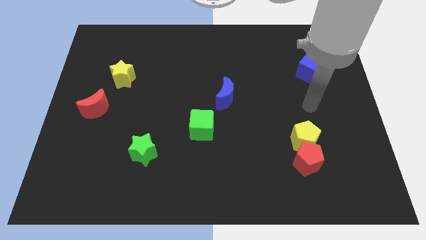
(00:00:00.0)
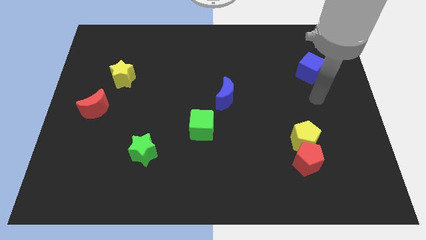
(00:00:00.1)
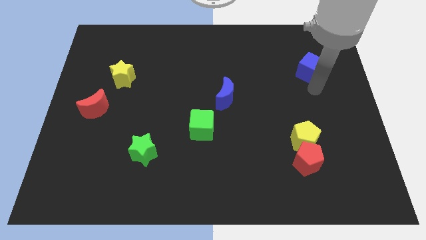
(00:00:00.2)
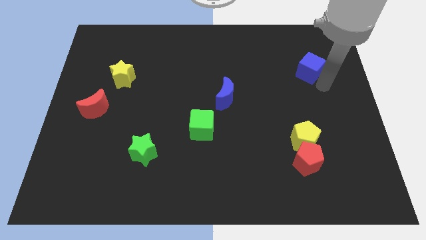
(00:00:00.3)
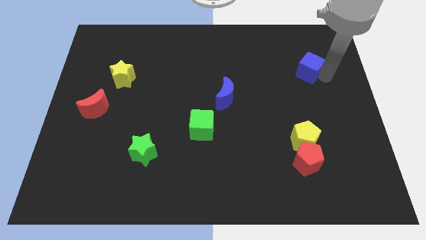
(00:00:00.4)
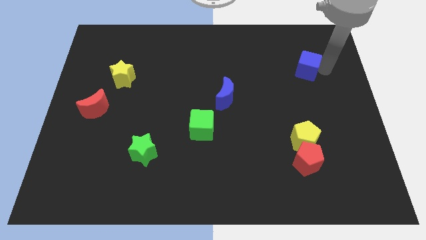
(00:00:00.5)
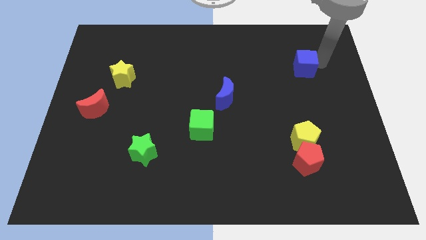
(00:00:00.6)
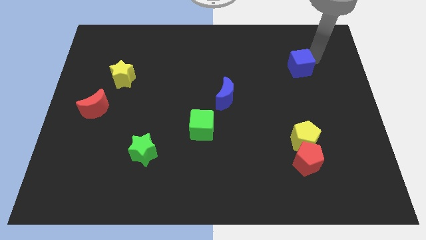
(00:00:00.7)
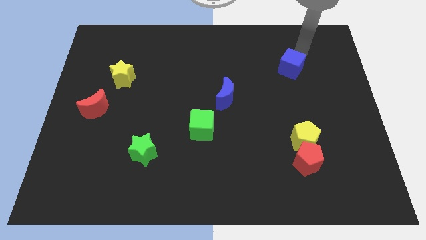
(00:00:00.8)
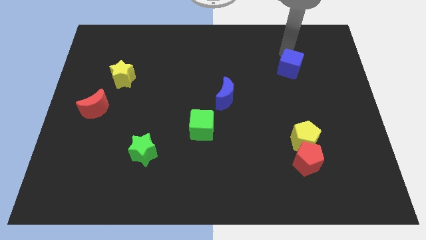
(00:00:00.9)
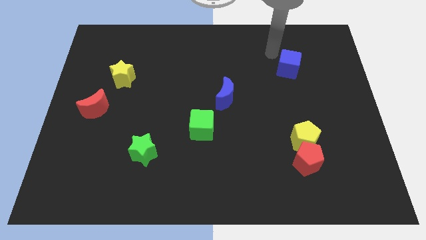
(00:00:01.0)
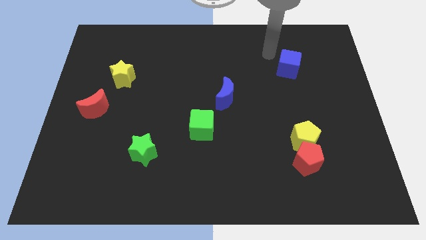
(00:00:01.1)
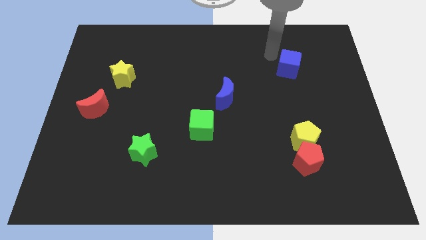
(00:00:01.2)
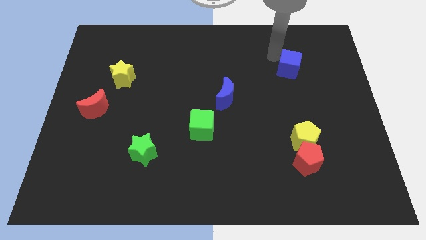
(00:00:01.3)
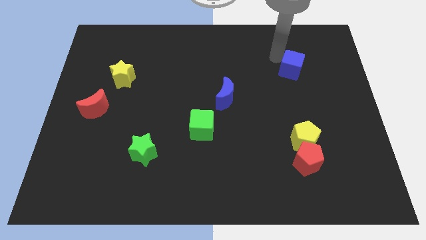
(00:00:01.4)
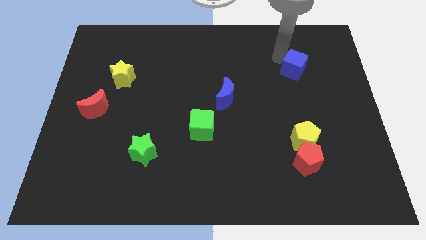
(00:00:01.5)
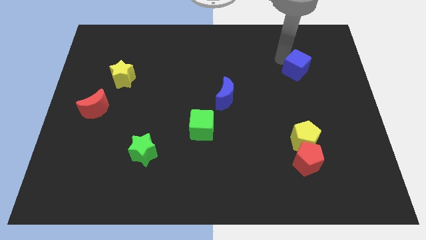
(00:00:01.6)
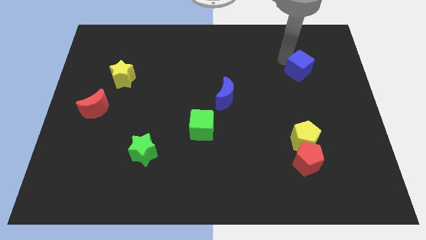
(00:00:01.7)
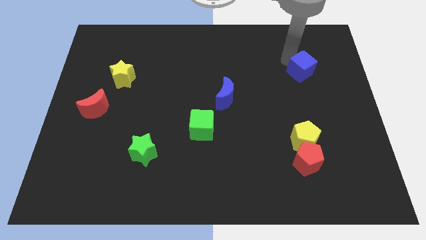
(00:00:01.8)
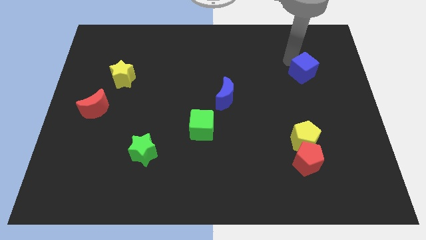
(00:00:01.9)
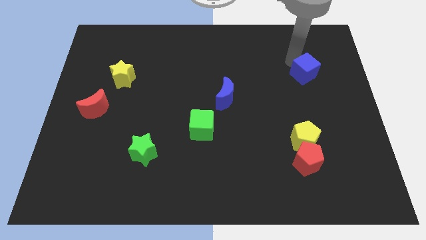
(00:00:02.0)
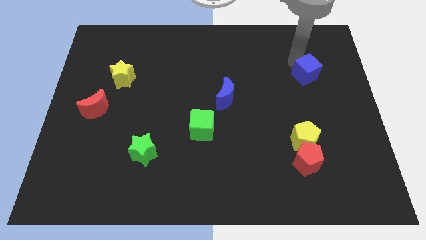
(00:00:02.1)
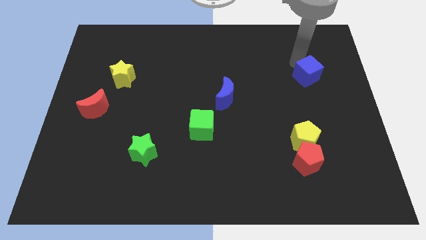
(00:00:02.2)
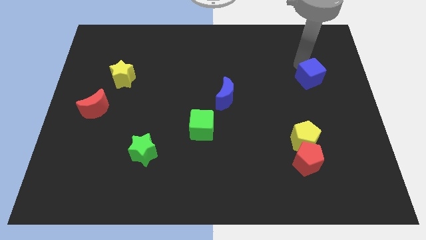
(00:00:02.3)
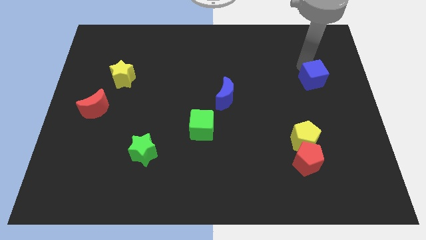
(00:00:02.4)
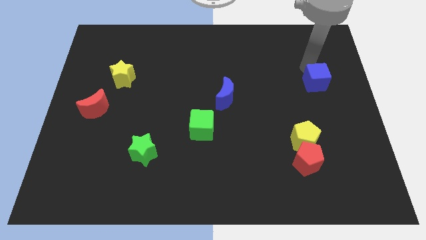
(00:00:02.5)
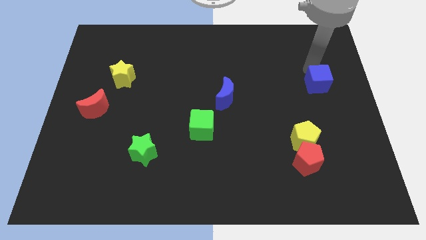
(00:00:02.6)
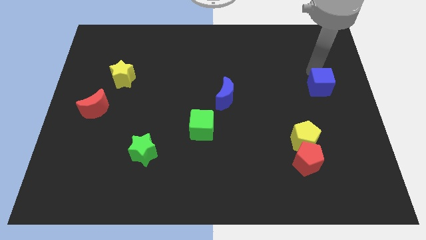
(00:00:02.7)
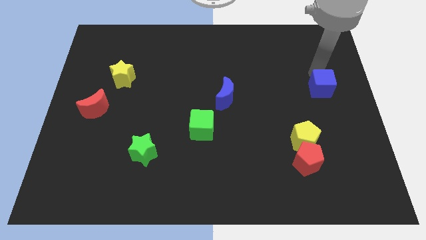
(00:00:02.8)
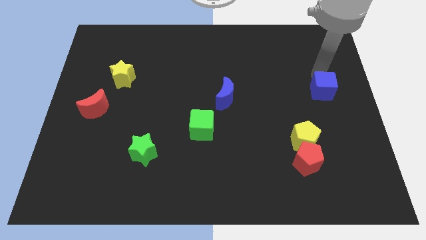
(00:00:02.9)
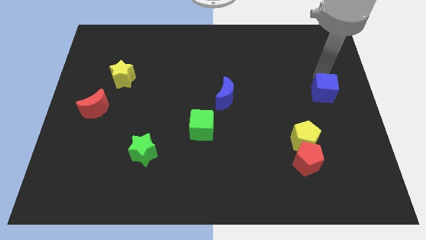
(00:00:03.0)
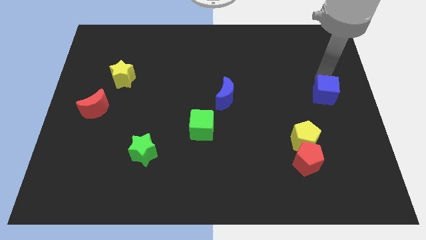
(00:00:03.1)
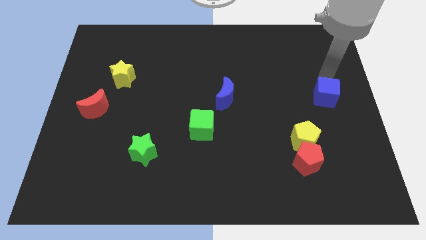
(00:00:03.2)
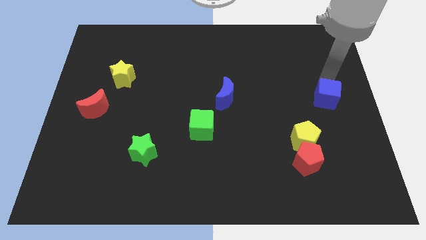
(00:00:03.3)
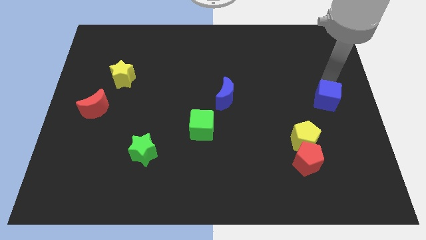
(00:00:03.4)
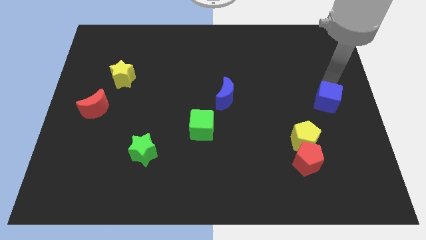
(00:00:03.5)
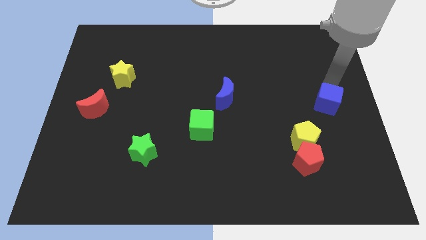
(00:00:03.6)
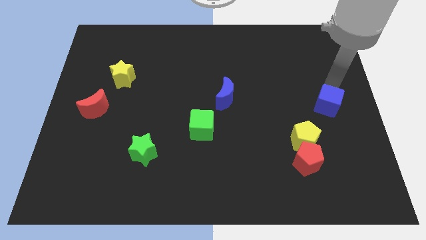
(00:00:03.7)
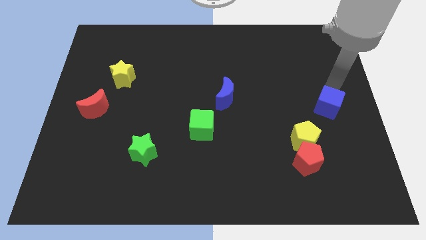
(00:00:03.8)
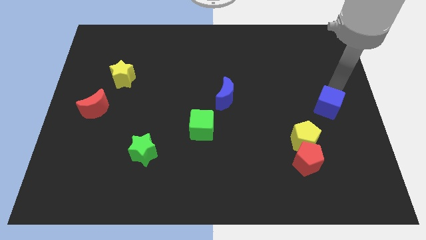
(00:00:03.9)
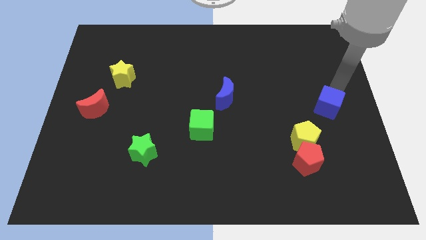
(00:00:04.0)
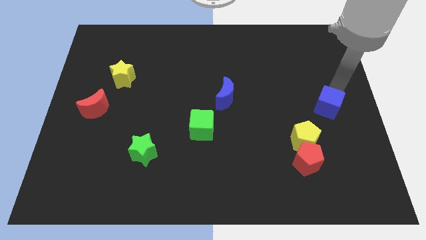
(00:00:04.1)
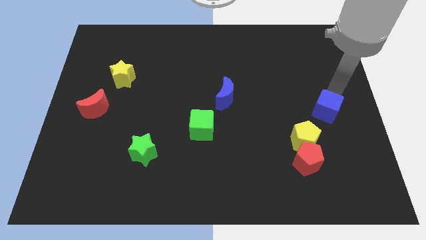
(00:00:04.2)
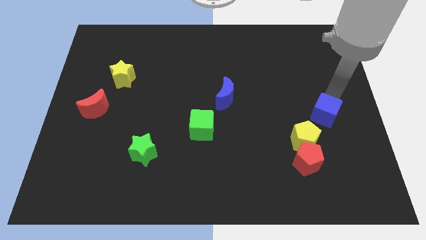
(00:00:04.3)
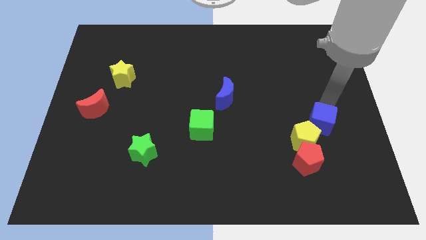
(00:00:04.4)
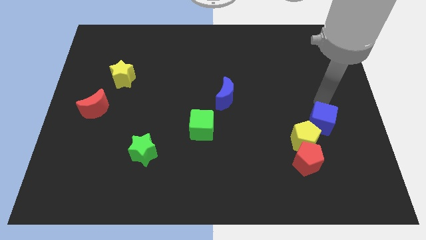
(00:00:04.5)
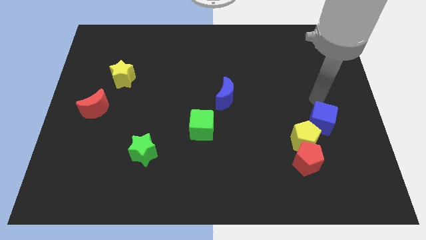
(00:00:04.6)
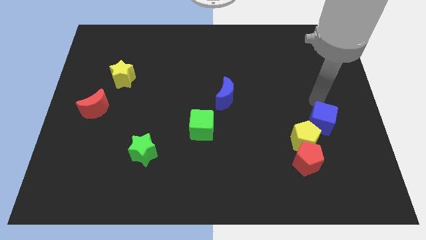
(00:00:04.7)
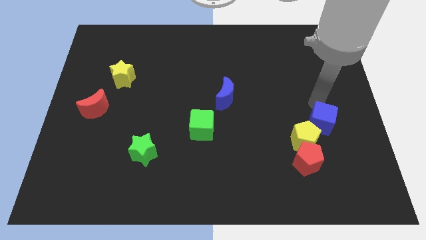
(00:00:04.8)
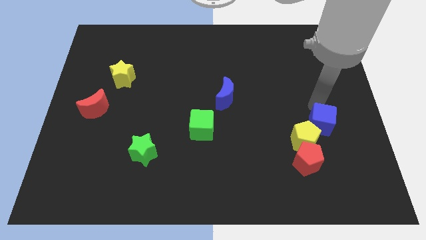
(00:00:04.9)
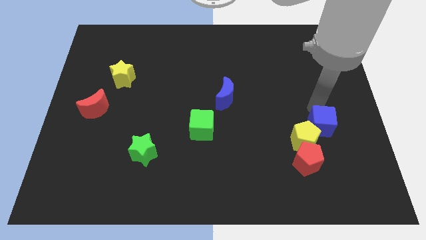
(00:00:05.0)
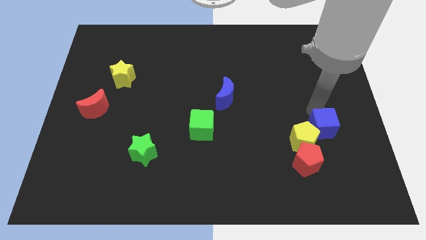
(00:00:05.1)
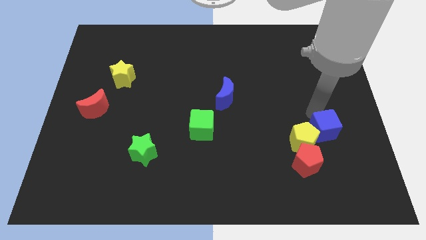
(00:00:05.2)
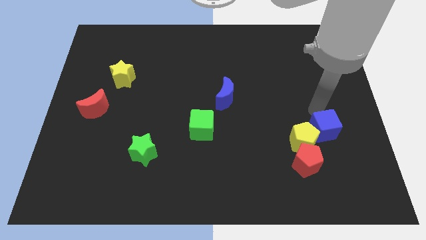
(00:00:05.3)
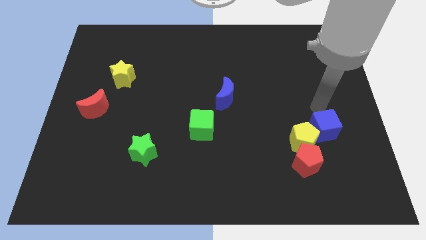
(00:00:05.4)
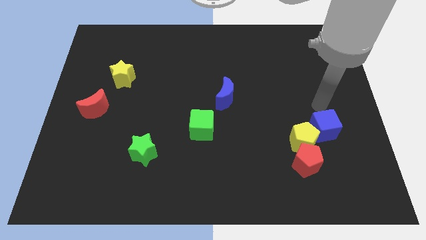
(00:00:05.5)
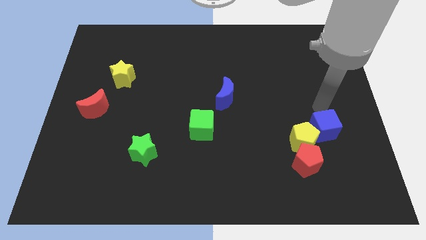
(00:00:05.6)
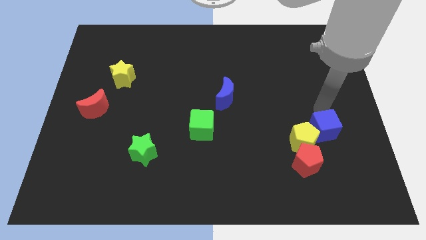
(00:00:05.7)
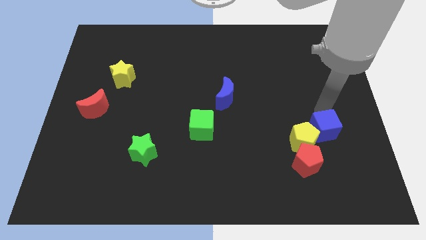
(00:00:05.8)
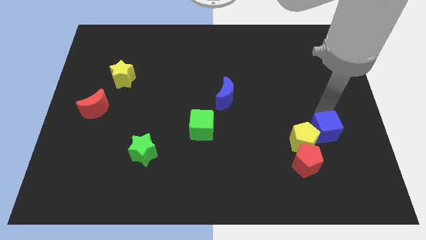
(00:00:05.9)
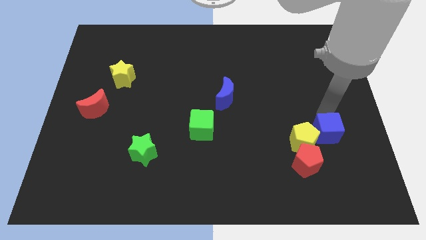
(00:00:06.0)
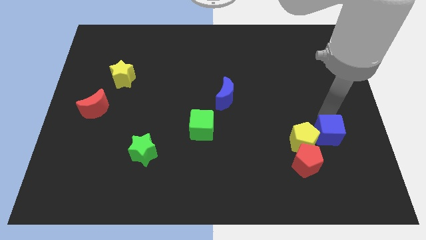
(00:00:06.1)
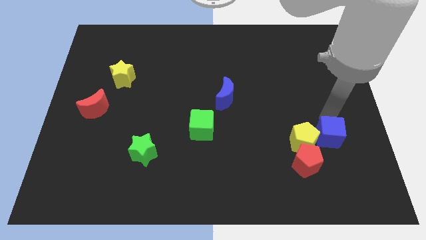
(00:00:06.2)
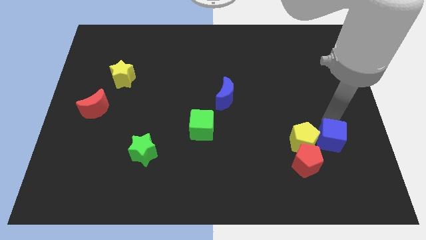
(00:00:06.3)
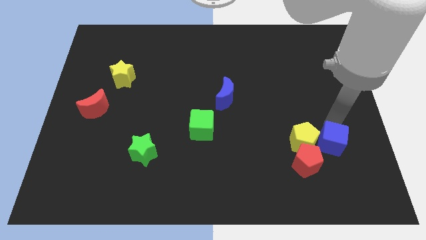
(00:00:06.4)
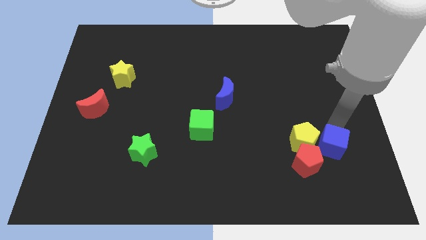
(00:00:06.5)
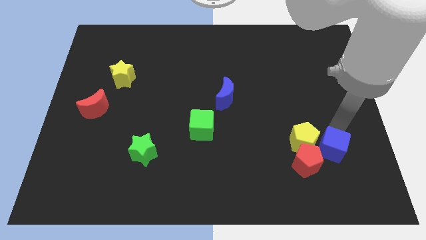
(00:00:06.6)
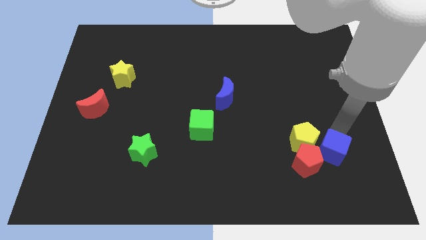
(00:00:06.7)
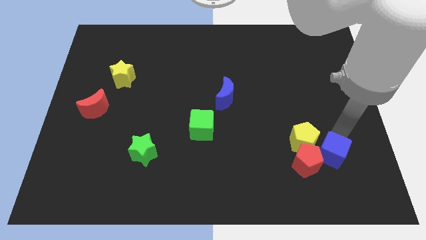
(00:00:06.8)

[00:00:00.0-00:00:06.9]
slide the blue cube to the red pentagon

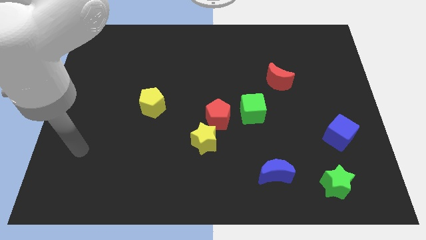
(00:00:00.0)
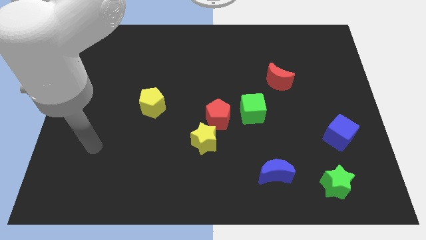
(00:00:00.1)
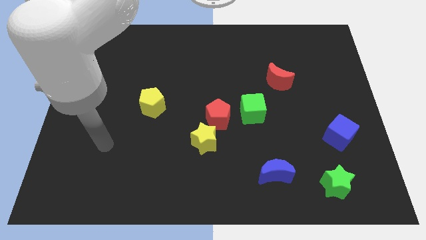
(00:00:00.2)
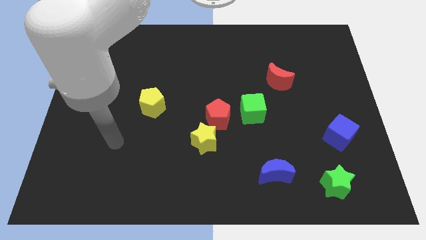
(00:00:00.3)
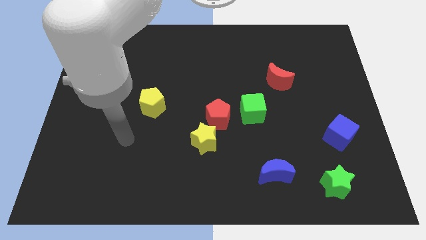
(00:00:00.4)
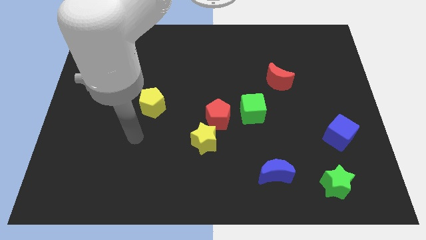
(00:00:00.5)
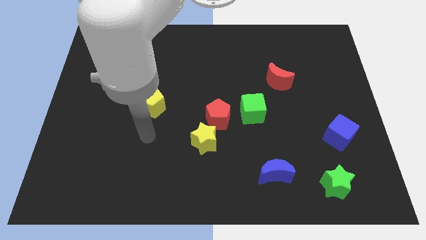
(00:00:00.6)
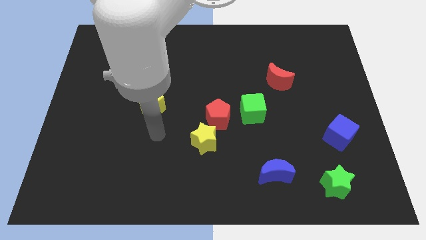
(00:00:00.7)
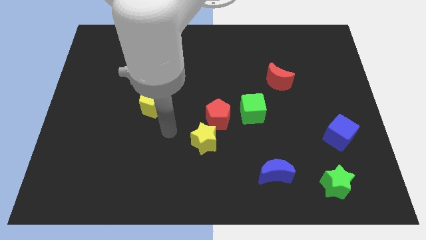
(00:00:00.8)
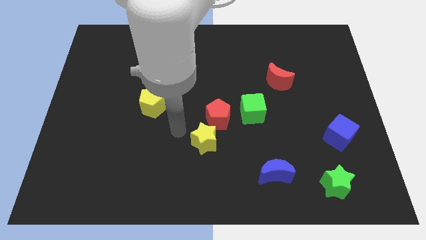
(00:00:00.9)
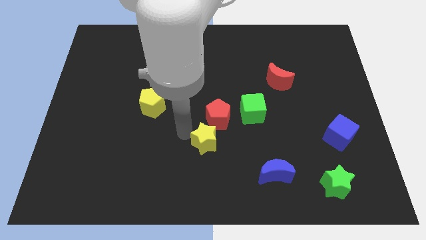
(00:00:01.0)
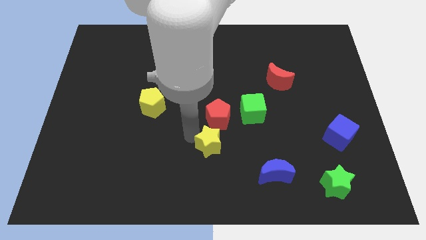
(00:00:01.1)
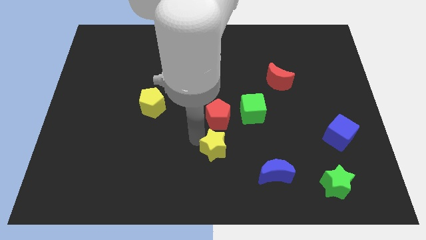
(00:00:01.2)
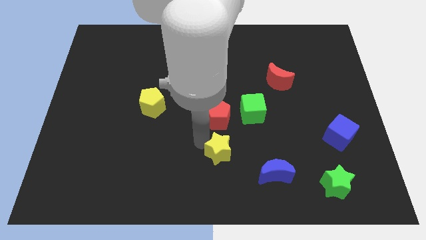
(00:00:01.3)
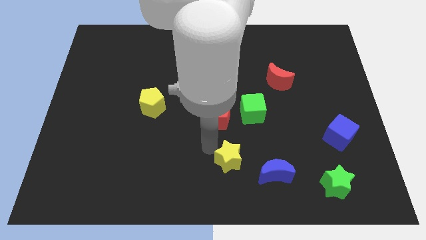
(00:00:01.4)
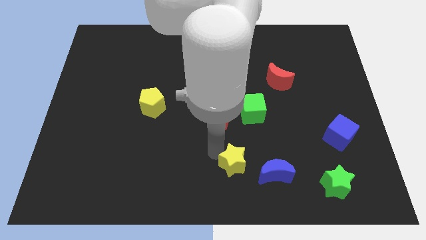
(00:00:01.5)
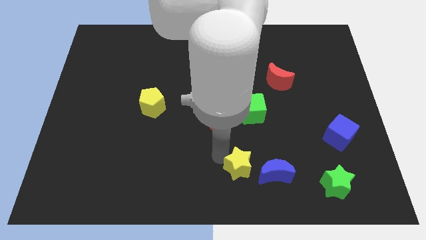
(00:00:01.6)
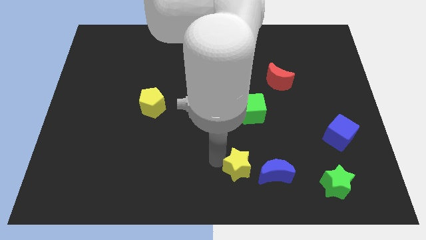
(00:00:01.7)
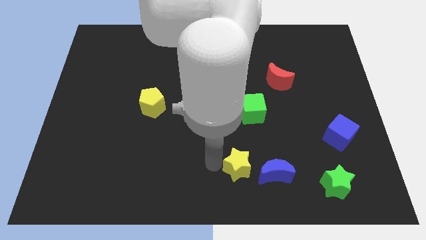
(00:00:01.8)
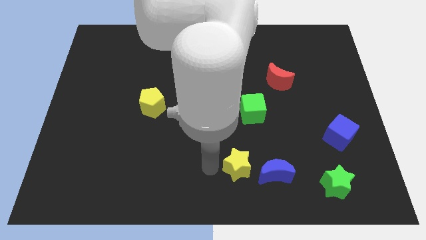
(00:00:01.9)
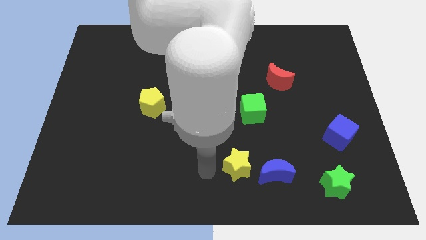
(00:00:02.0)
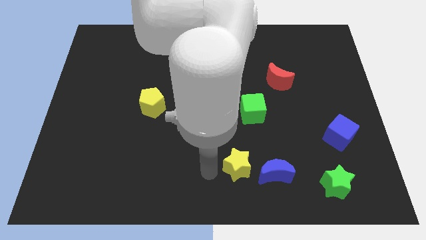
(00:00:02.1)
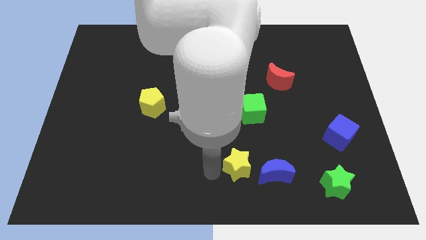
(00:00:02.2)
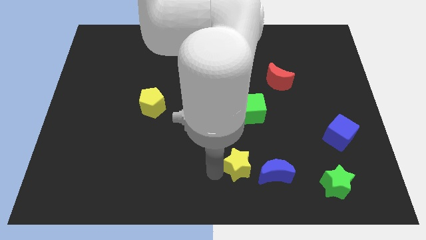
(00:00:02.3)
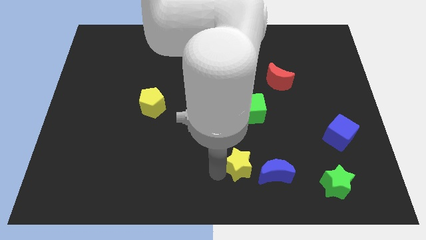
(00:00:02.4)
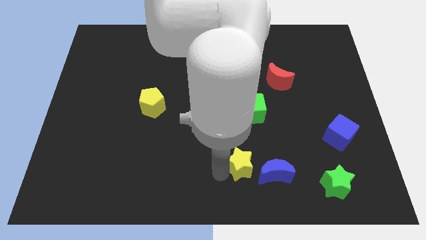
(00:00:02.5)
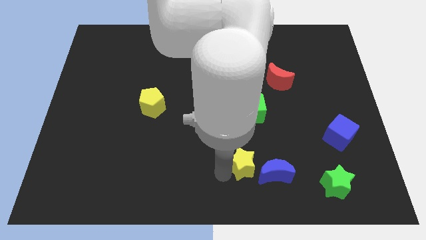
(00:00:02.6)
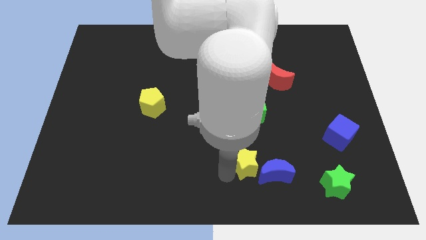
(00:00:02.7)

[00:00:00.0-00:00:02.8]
slide the yellow star next to the blue moon
